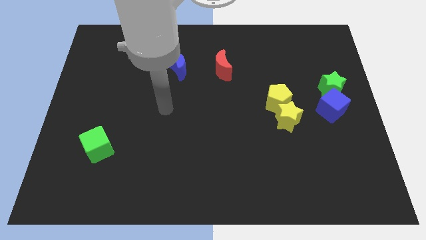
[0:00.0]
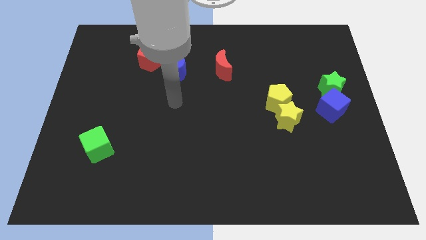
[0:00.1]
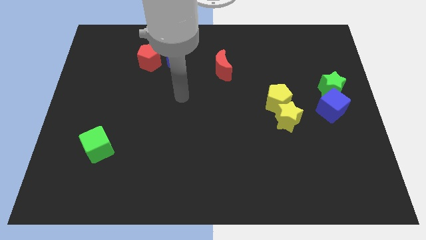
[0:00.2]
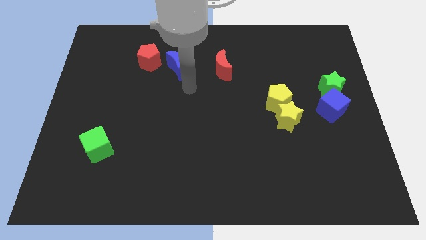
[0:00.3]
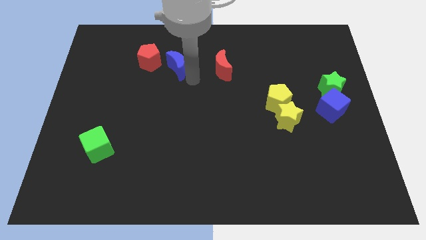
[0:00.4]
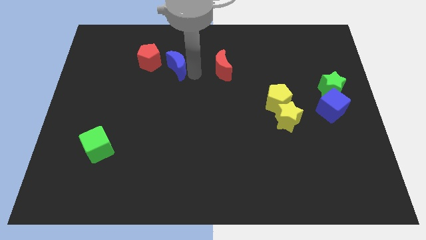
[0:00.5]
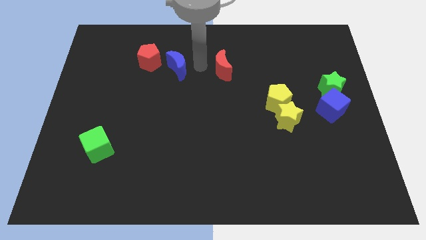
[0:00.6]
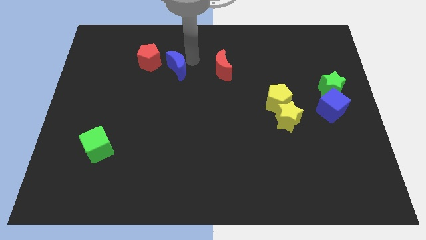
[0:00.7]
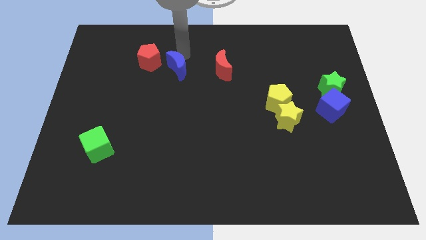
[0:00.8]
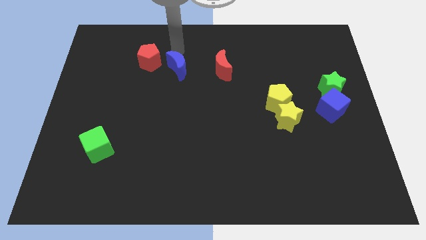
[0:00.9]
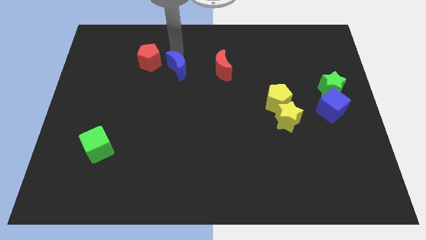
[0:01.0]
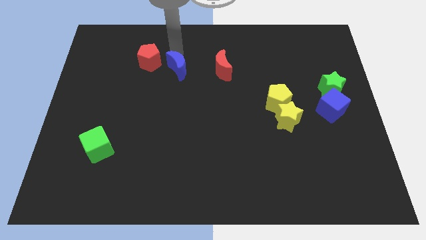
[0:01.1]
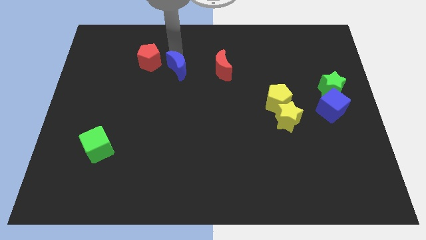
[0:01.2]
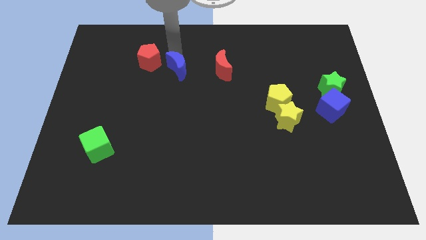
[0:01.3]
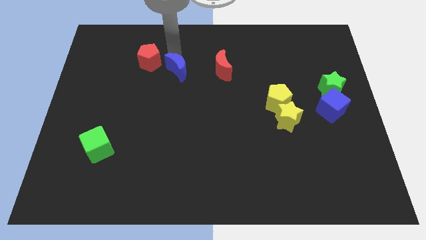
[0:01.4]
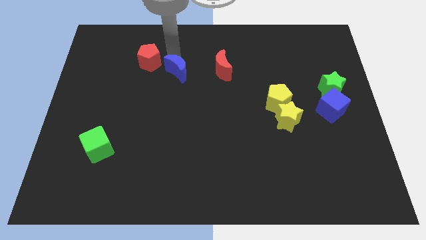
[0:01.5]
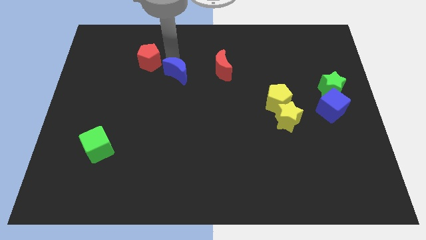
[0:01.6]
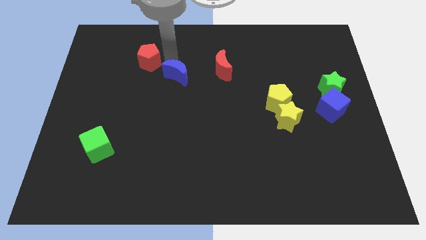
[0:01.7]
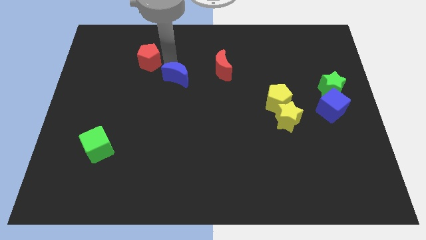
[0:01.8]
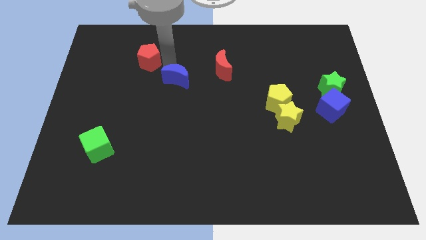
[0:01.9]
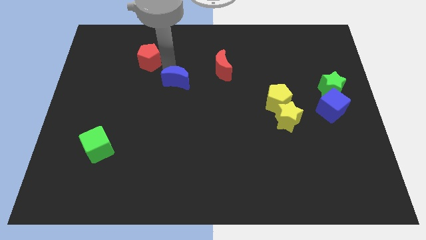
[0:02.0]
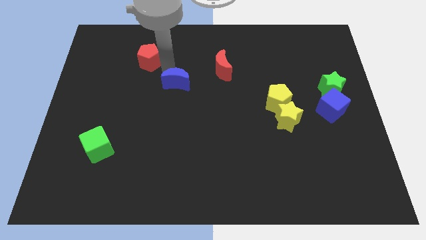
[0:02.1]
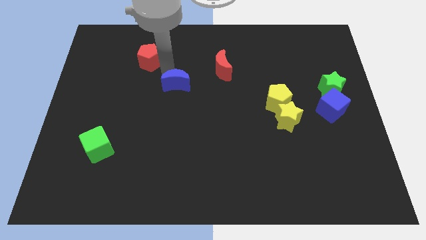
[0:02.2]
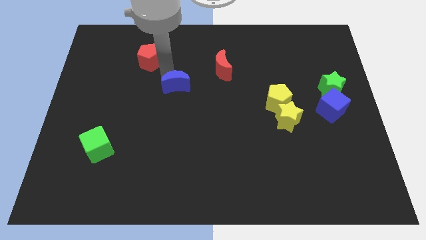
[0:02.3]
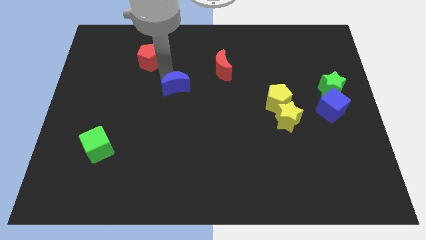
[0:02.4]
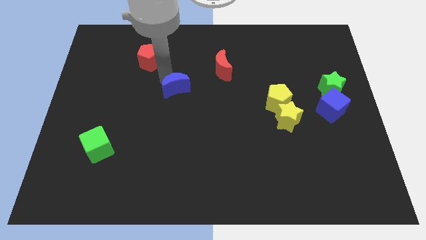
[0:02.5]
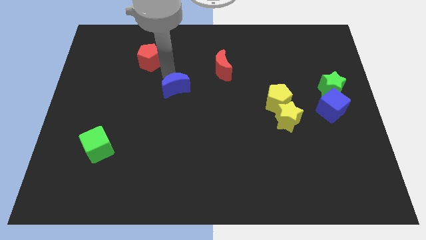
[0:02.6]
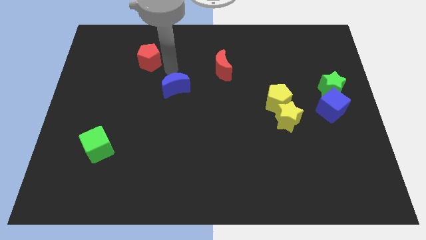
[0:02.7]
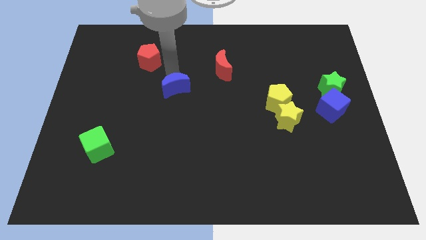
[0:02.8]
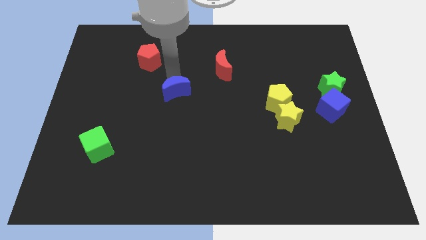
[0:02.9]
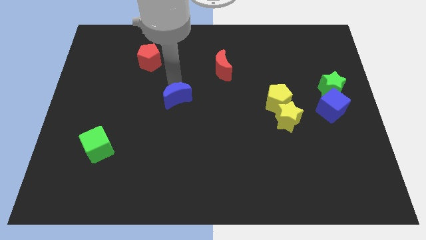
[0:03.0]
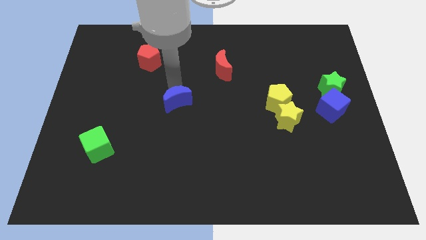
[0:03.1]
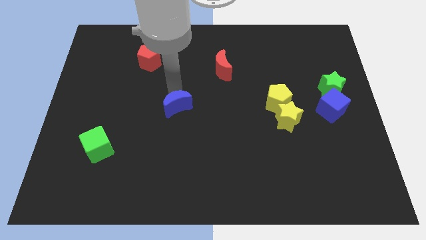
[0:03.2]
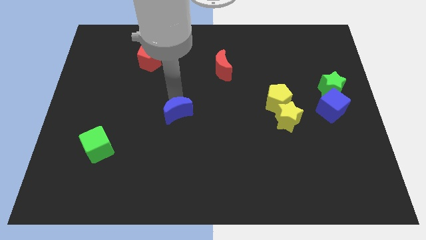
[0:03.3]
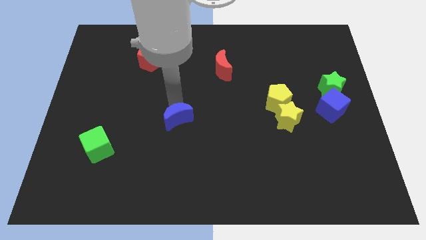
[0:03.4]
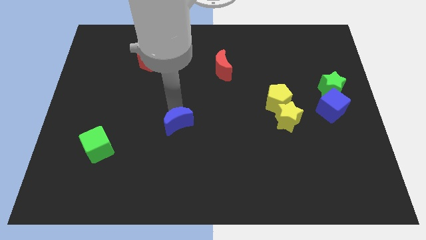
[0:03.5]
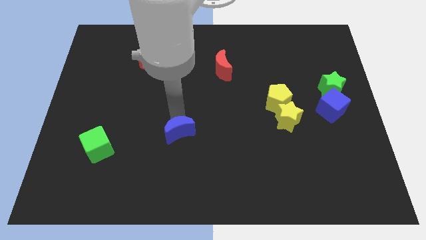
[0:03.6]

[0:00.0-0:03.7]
move the blue moon down

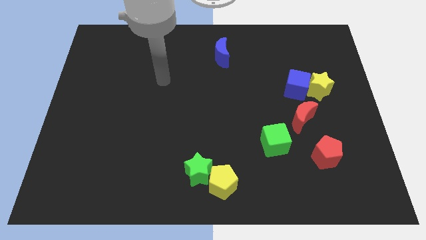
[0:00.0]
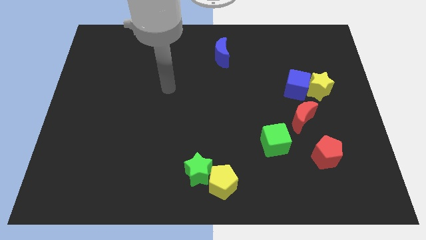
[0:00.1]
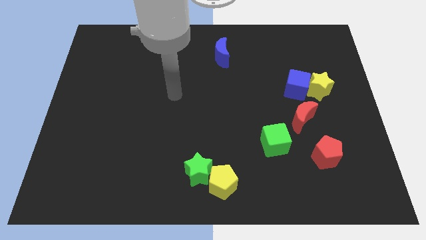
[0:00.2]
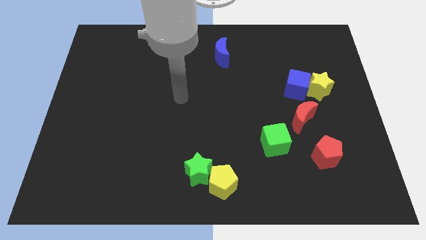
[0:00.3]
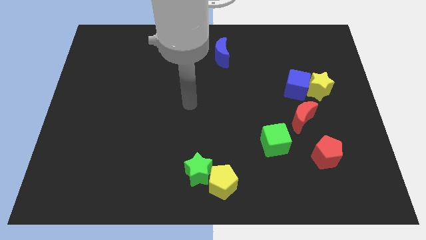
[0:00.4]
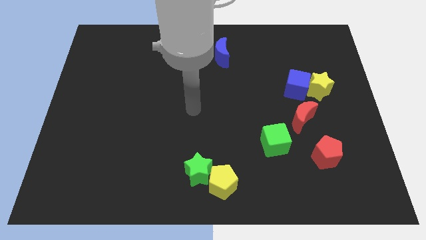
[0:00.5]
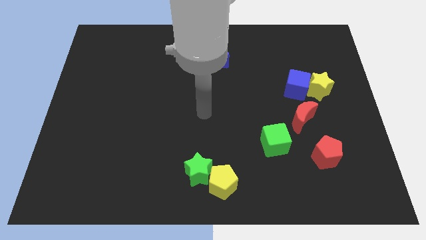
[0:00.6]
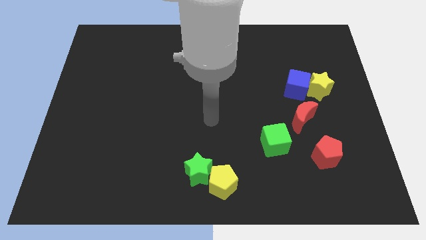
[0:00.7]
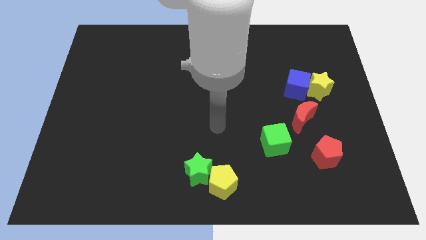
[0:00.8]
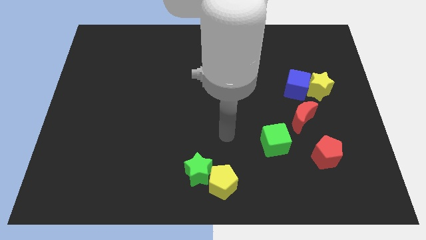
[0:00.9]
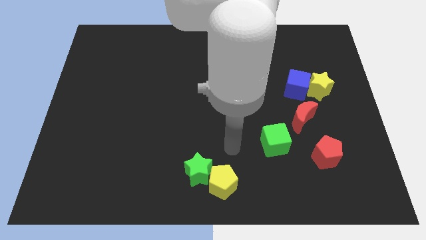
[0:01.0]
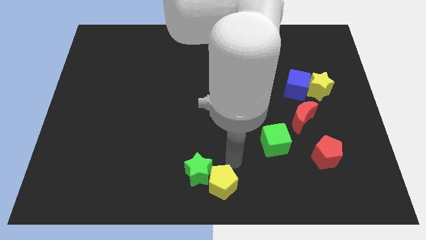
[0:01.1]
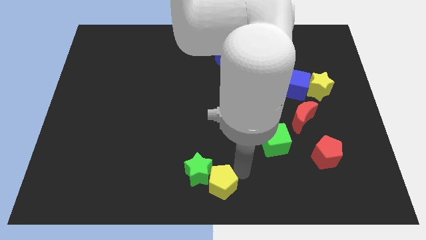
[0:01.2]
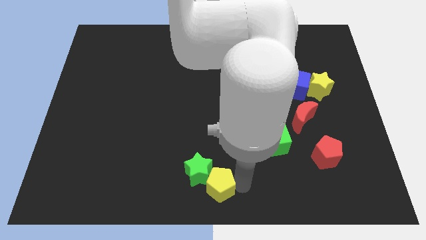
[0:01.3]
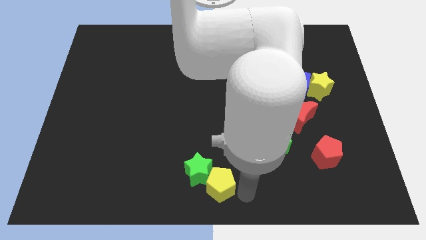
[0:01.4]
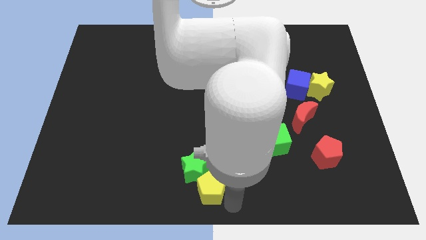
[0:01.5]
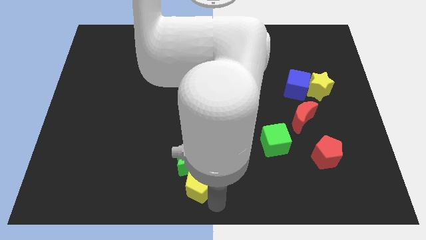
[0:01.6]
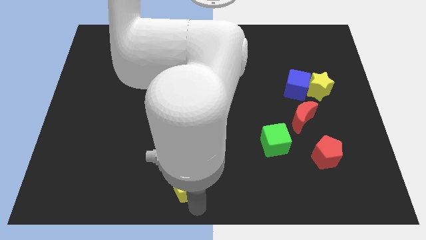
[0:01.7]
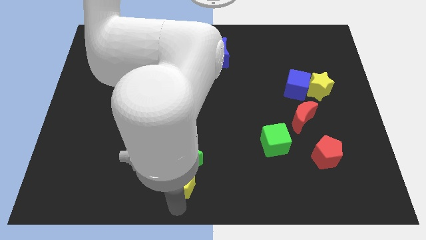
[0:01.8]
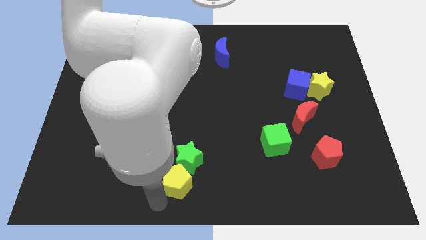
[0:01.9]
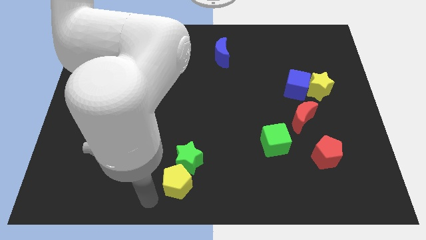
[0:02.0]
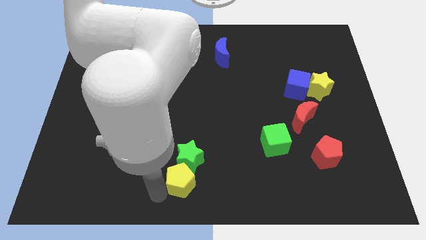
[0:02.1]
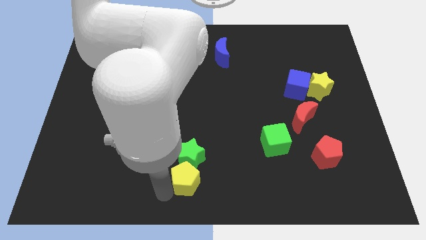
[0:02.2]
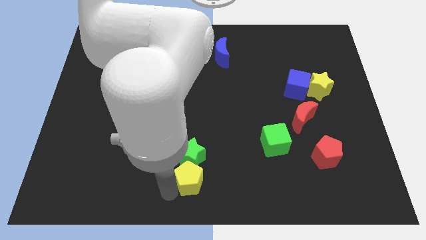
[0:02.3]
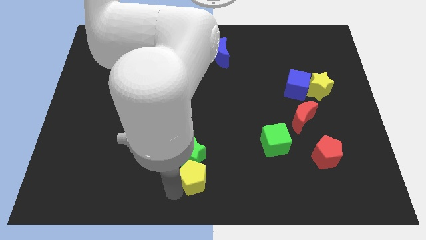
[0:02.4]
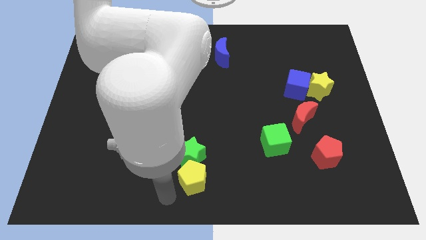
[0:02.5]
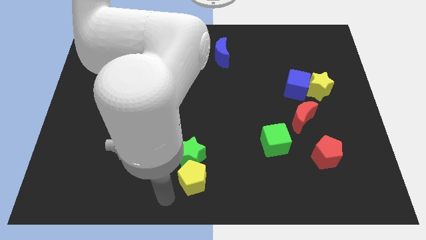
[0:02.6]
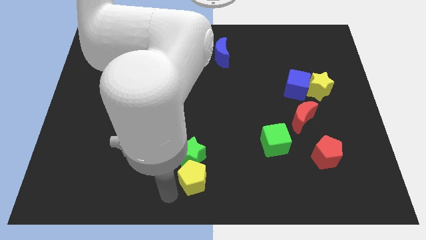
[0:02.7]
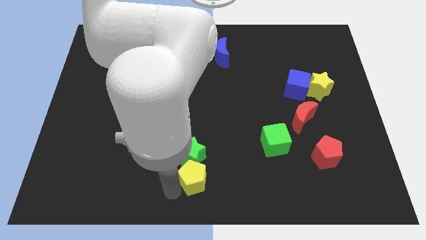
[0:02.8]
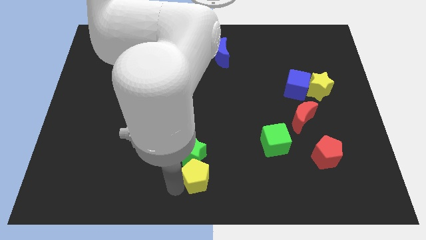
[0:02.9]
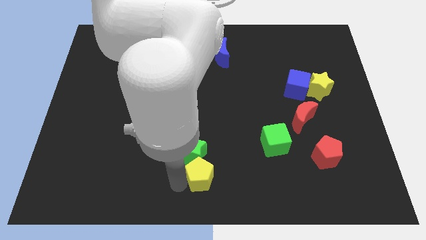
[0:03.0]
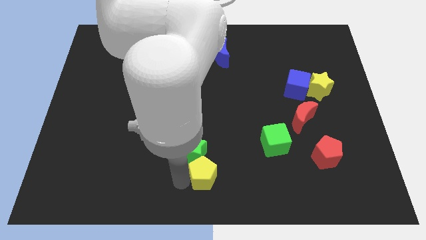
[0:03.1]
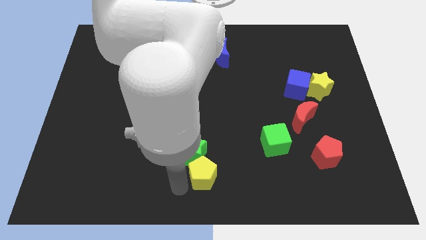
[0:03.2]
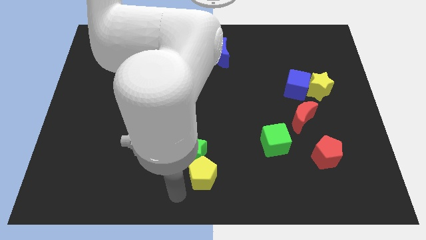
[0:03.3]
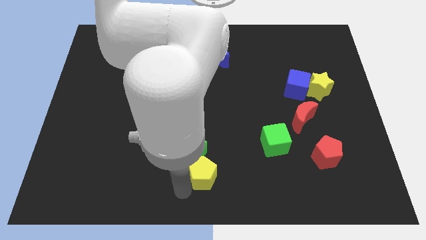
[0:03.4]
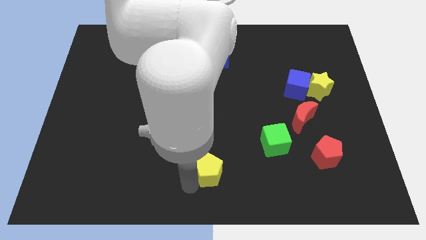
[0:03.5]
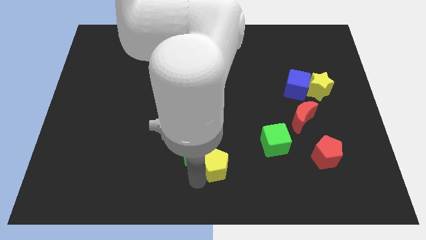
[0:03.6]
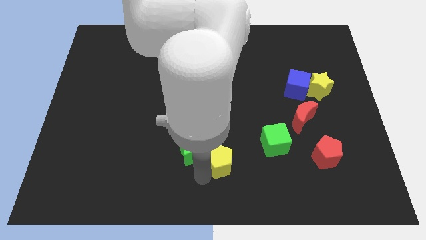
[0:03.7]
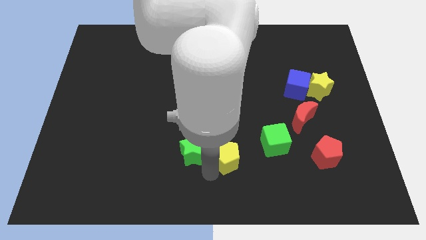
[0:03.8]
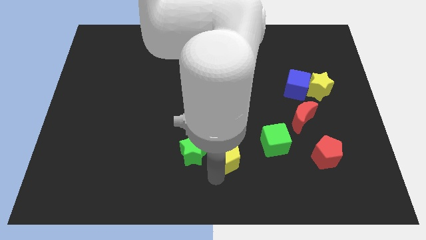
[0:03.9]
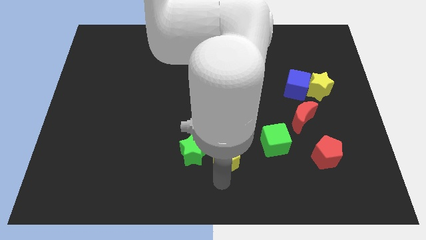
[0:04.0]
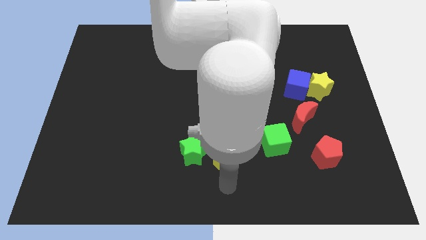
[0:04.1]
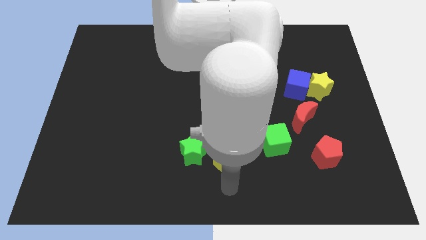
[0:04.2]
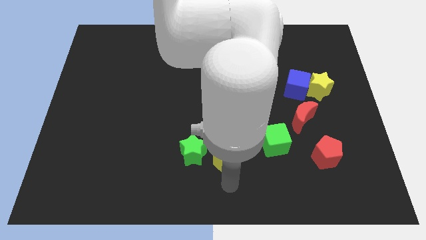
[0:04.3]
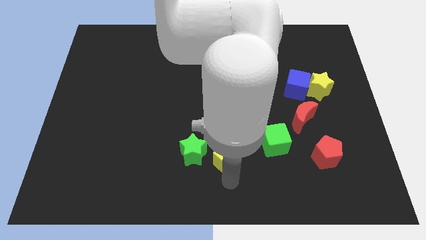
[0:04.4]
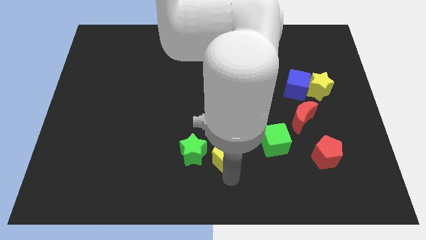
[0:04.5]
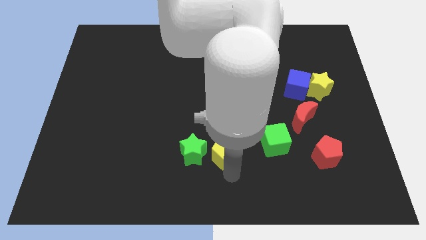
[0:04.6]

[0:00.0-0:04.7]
slide the yellow pentagon slightly upwards
